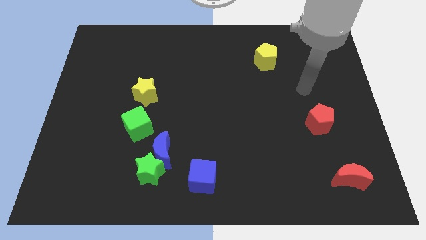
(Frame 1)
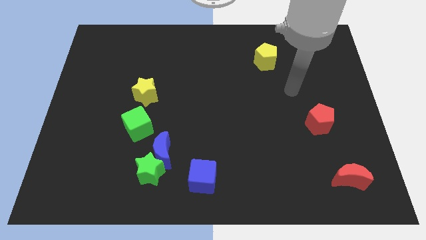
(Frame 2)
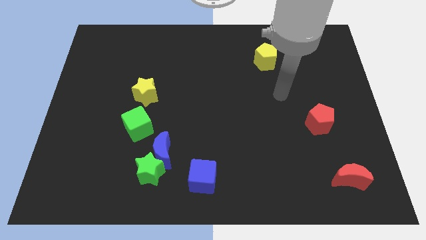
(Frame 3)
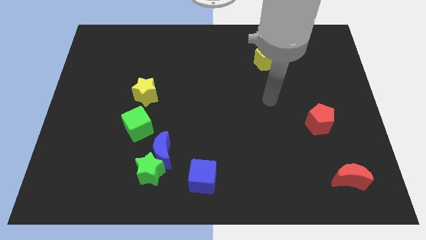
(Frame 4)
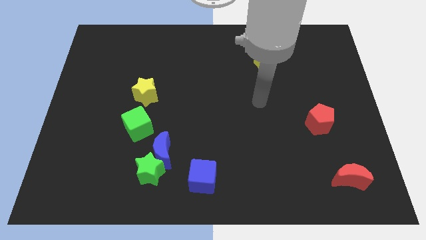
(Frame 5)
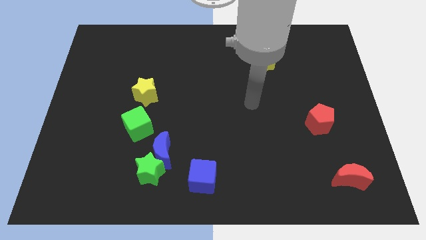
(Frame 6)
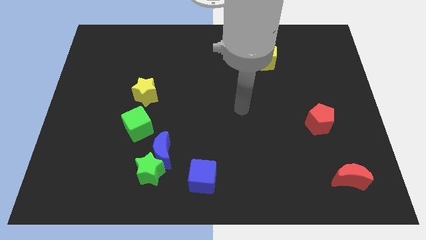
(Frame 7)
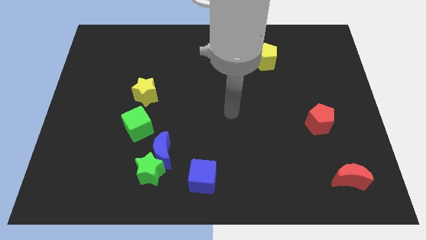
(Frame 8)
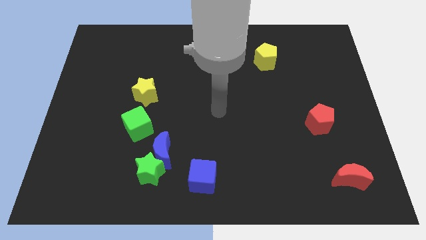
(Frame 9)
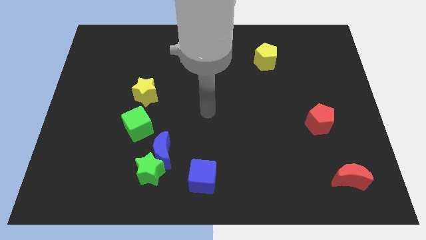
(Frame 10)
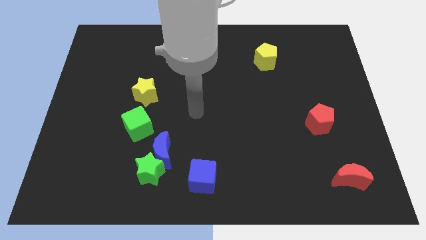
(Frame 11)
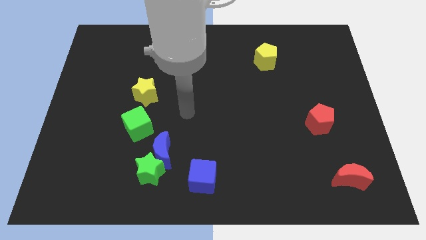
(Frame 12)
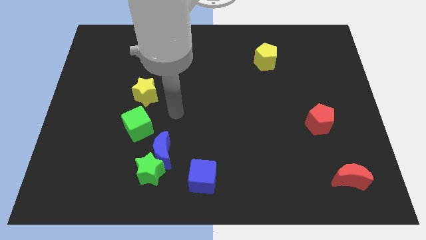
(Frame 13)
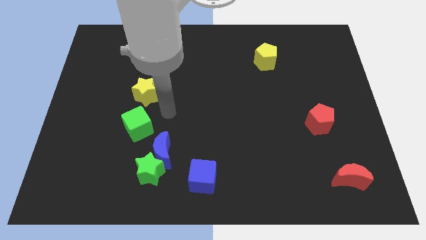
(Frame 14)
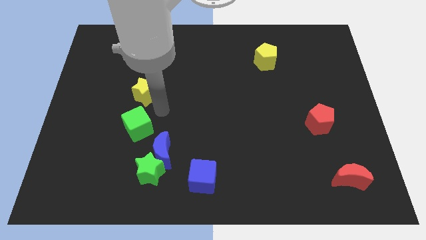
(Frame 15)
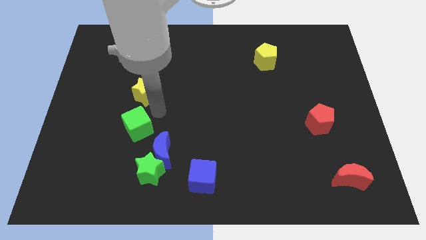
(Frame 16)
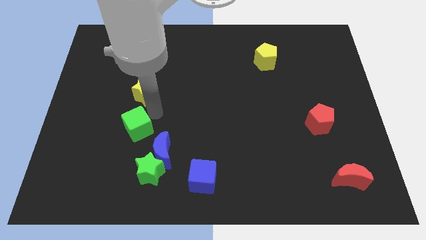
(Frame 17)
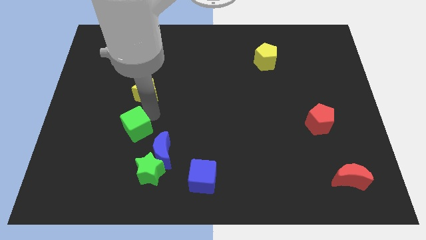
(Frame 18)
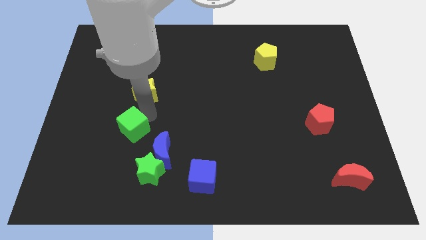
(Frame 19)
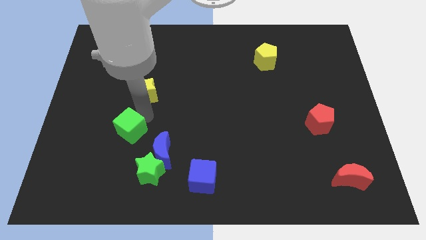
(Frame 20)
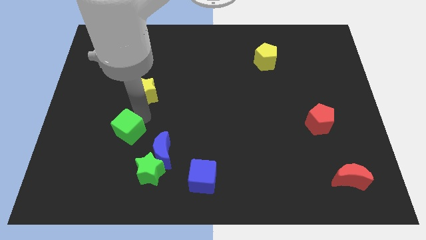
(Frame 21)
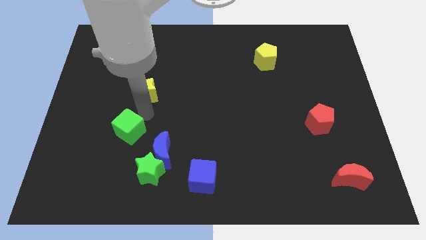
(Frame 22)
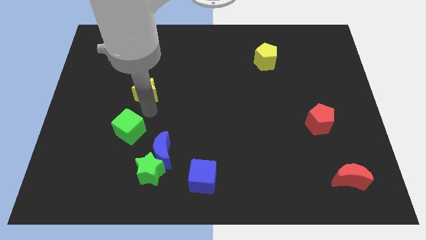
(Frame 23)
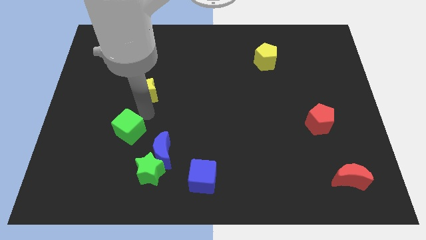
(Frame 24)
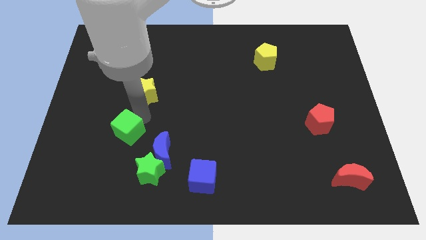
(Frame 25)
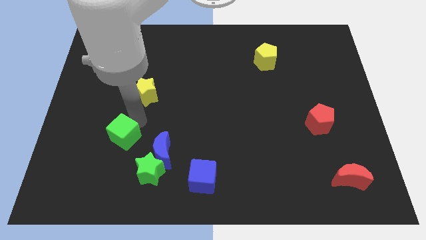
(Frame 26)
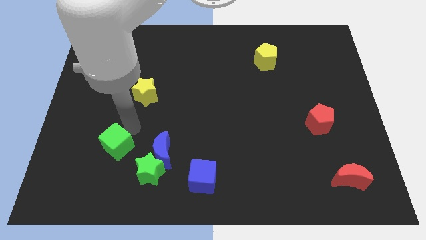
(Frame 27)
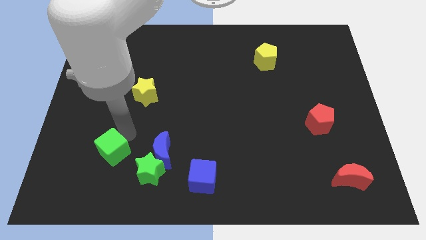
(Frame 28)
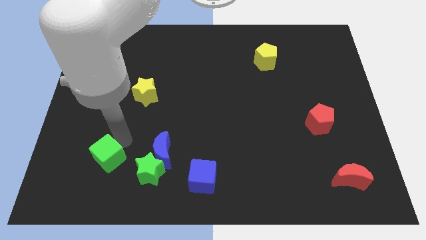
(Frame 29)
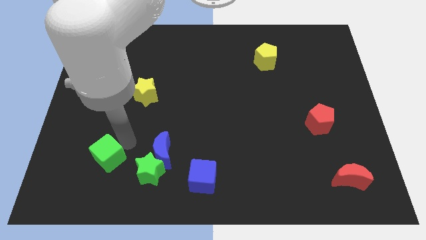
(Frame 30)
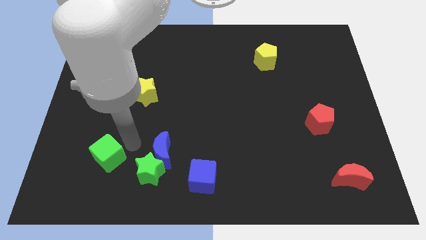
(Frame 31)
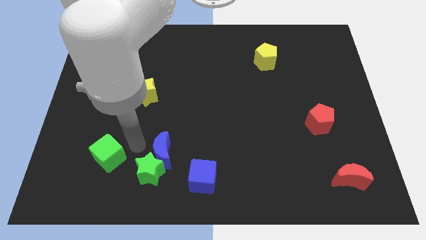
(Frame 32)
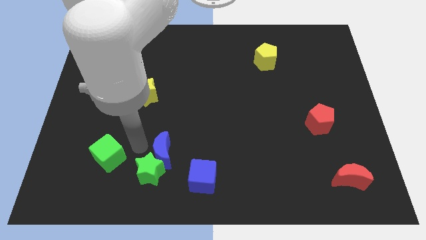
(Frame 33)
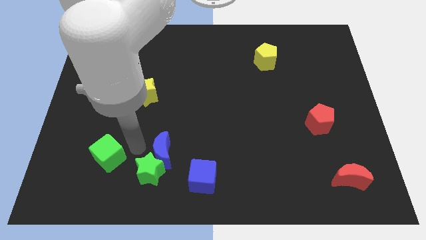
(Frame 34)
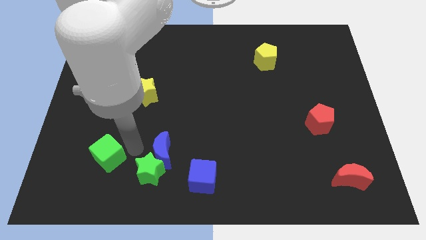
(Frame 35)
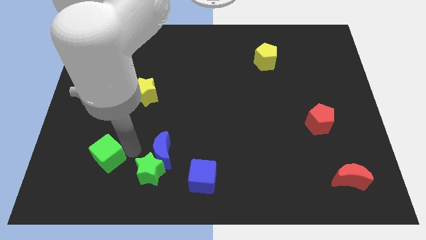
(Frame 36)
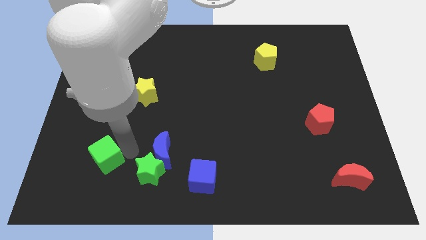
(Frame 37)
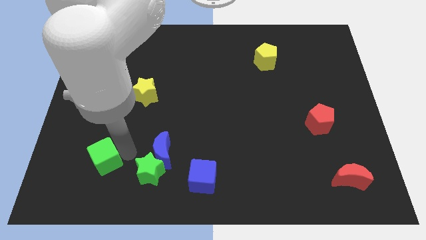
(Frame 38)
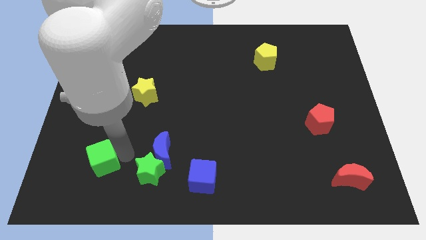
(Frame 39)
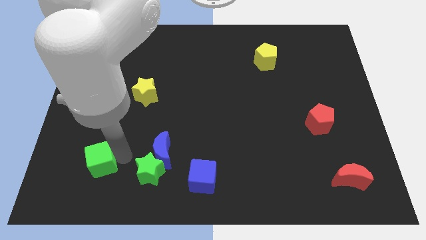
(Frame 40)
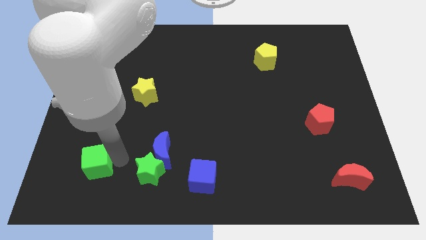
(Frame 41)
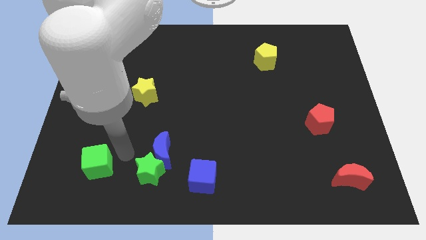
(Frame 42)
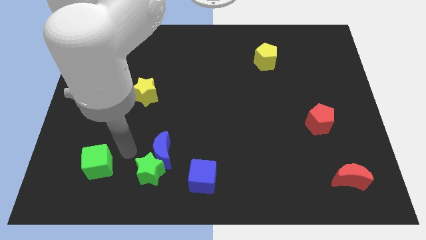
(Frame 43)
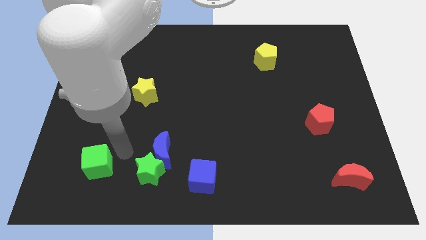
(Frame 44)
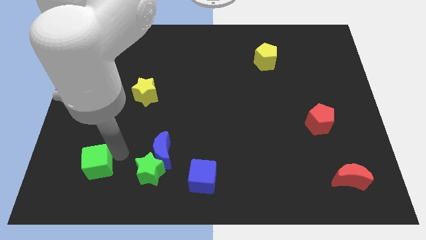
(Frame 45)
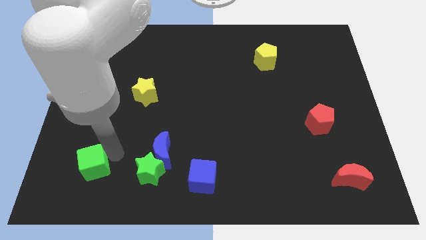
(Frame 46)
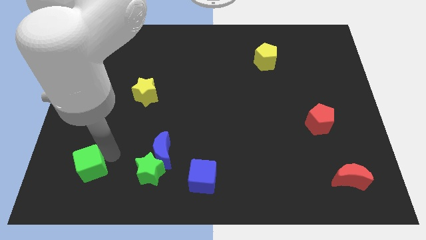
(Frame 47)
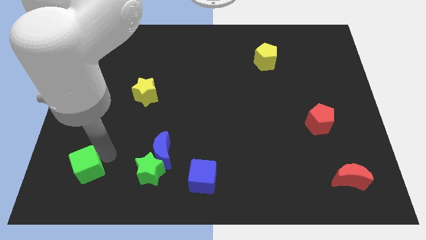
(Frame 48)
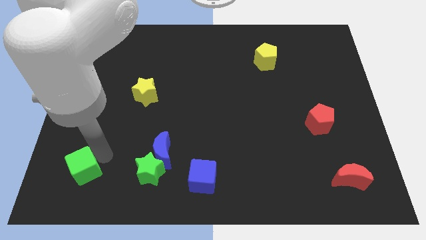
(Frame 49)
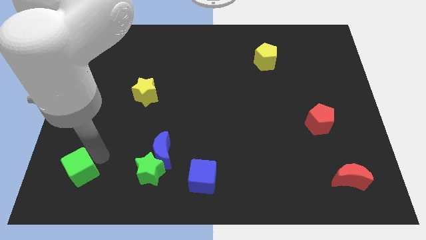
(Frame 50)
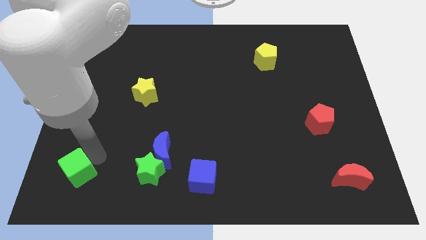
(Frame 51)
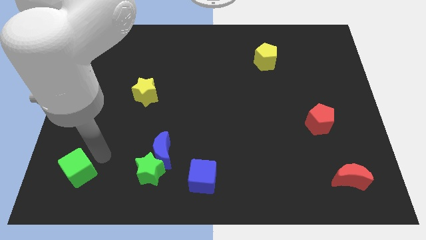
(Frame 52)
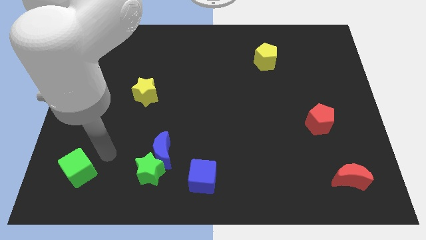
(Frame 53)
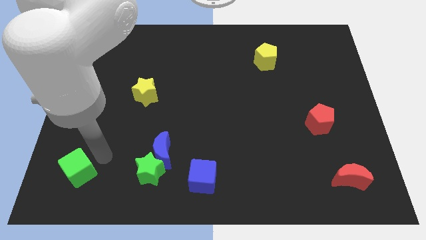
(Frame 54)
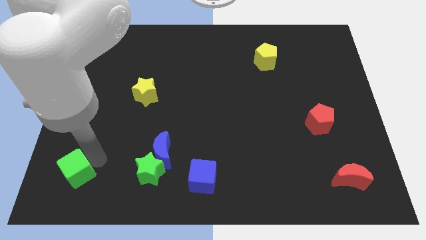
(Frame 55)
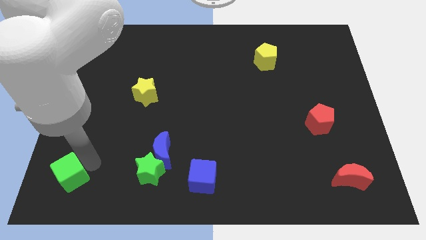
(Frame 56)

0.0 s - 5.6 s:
push the green cube to the lower left corner

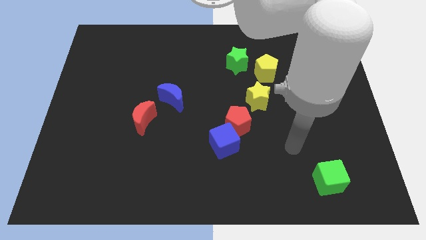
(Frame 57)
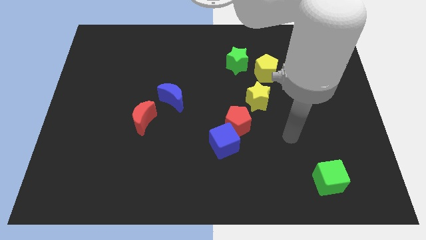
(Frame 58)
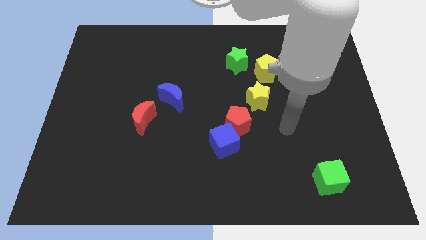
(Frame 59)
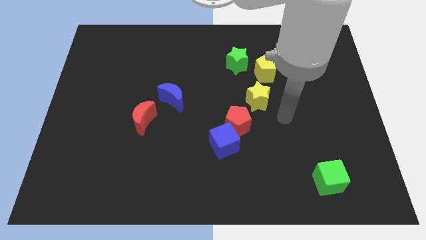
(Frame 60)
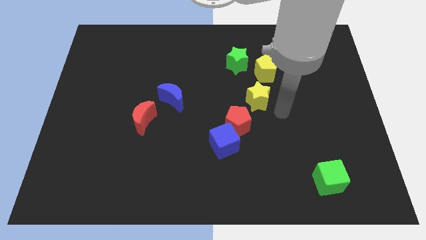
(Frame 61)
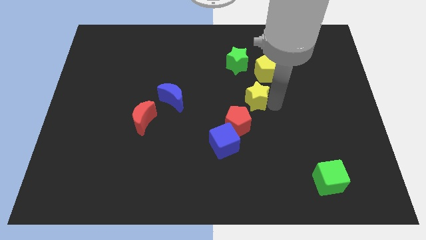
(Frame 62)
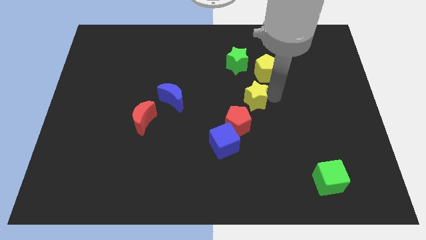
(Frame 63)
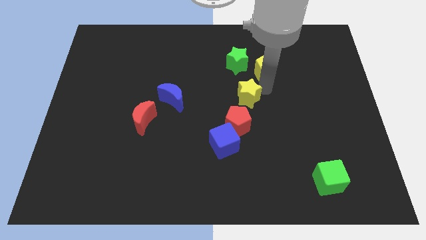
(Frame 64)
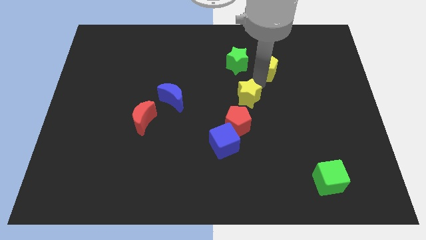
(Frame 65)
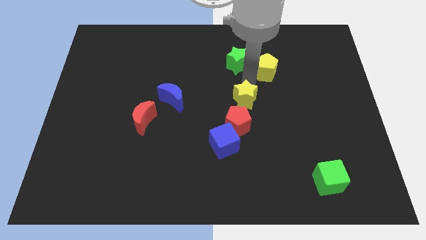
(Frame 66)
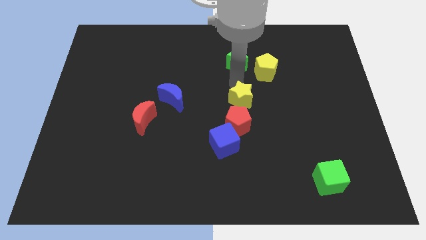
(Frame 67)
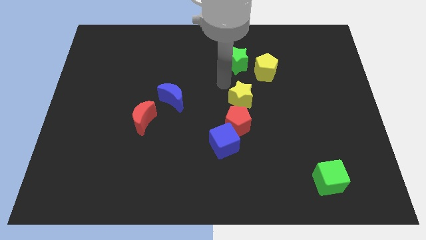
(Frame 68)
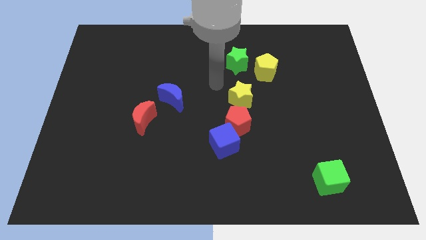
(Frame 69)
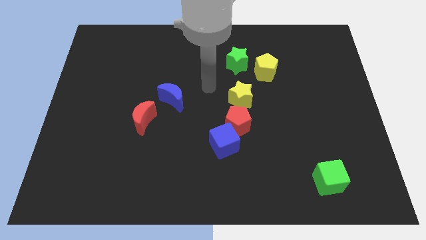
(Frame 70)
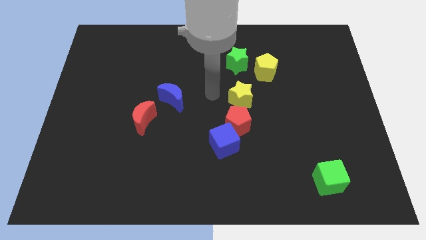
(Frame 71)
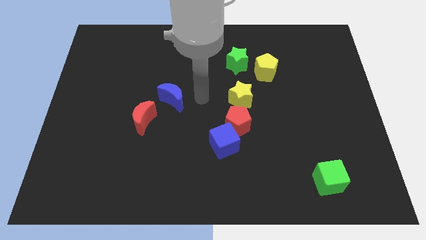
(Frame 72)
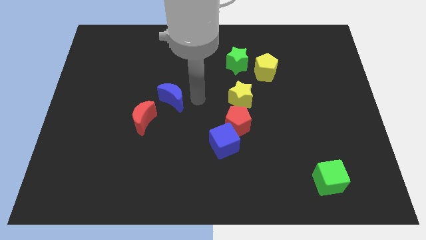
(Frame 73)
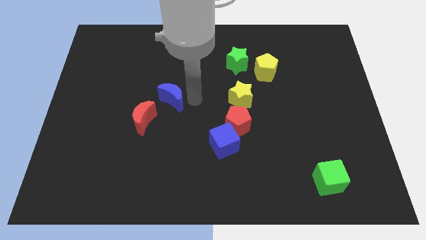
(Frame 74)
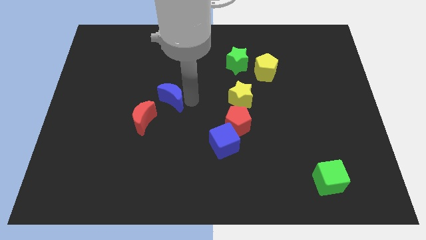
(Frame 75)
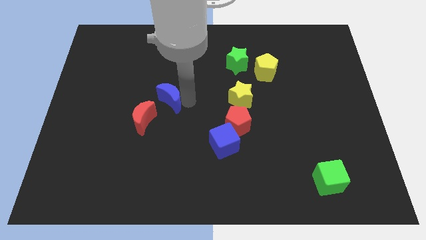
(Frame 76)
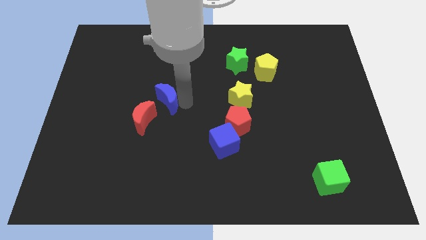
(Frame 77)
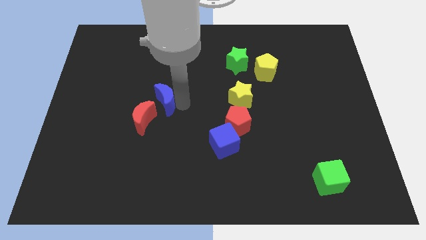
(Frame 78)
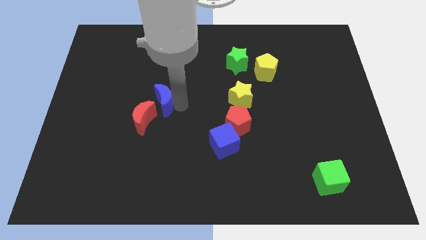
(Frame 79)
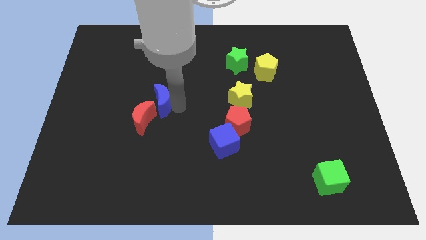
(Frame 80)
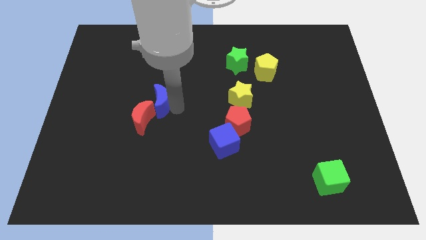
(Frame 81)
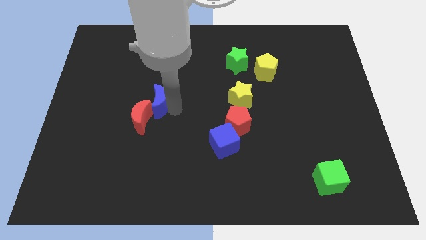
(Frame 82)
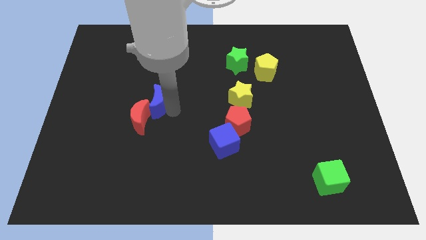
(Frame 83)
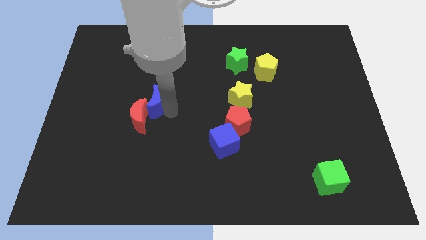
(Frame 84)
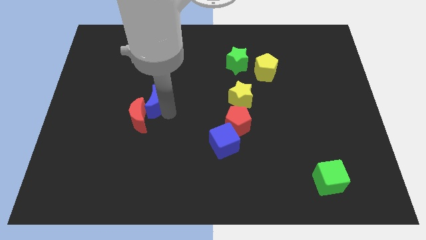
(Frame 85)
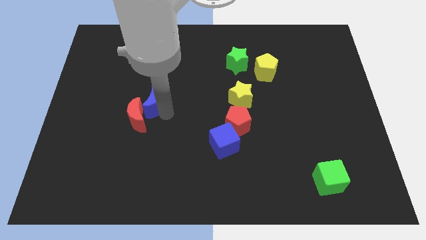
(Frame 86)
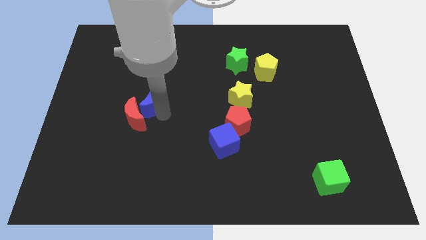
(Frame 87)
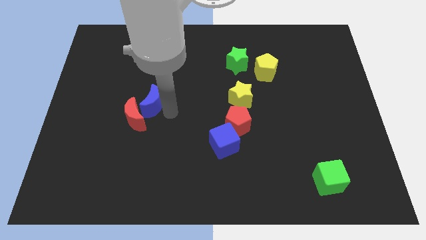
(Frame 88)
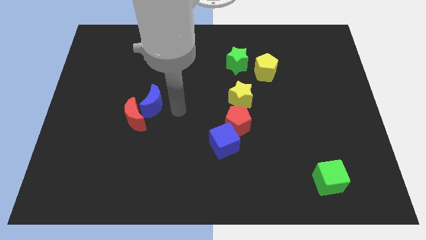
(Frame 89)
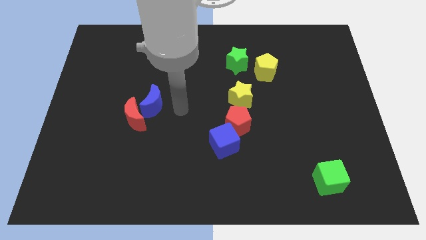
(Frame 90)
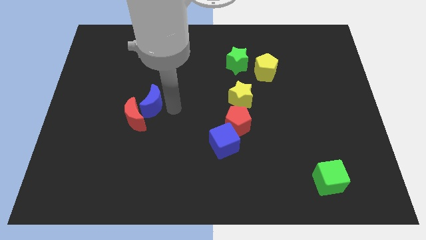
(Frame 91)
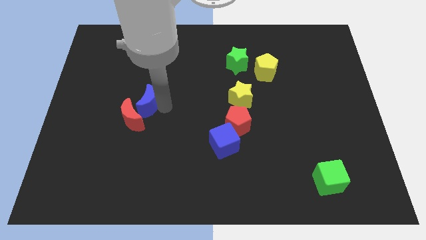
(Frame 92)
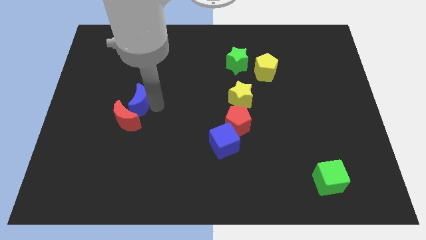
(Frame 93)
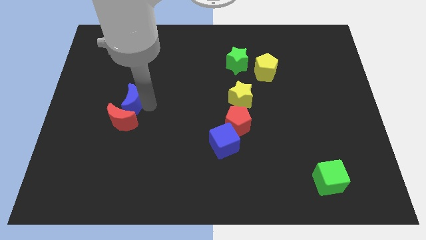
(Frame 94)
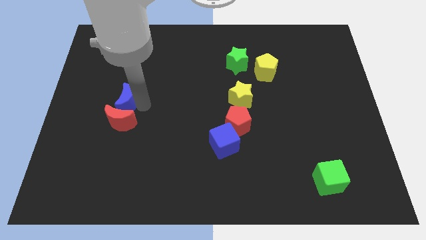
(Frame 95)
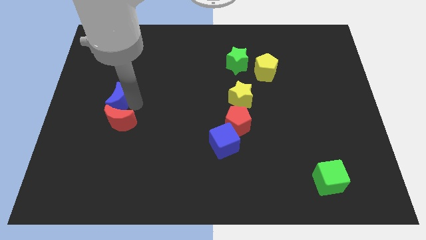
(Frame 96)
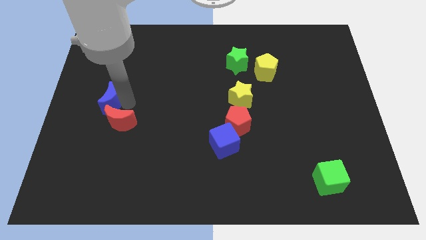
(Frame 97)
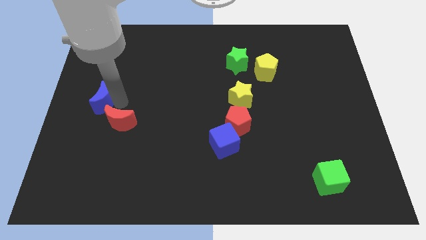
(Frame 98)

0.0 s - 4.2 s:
move the blue moon to the center left
